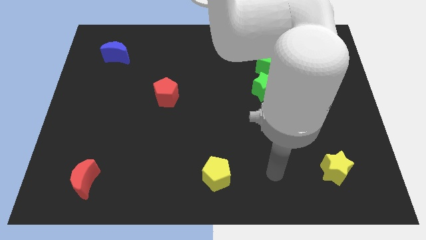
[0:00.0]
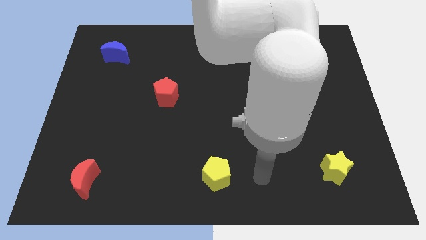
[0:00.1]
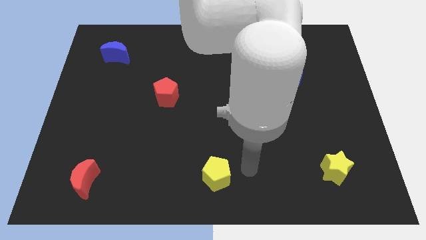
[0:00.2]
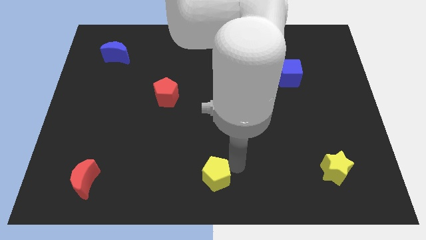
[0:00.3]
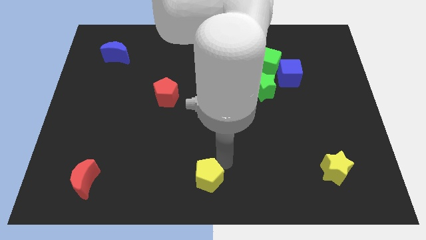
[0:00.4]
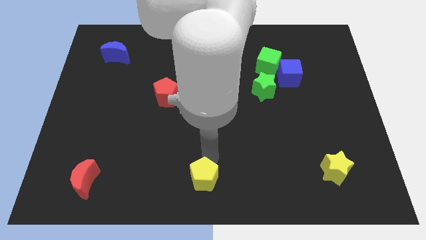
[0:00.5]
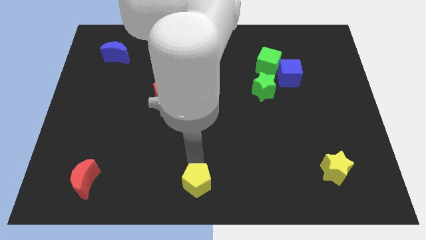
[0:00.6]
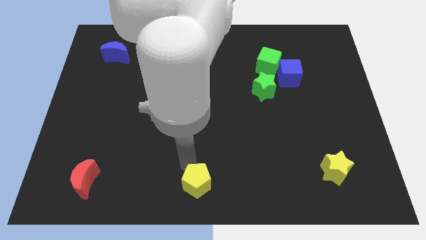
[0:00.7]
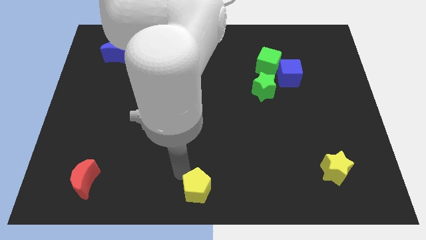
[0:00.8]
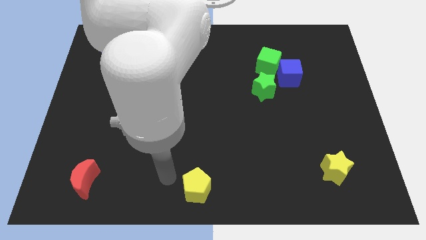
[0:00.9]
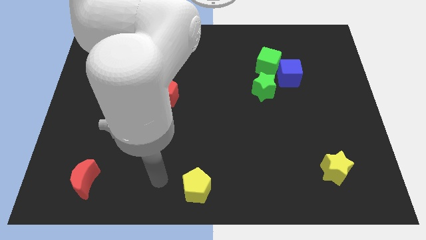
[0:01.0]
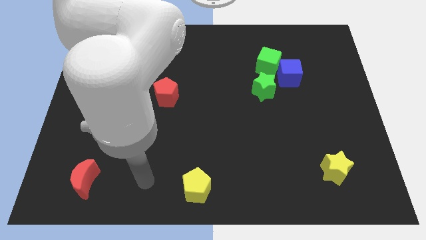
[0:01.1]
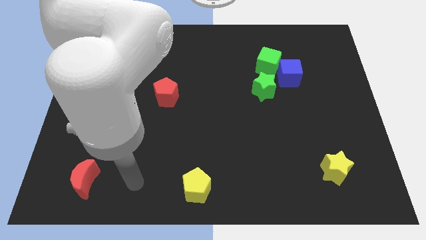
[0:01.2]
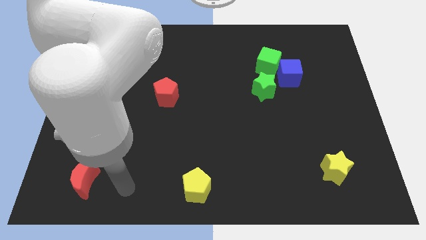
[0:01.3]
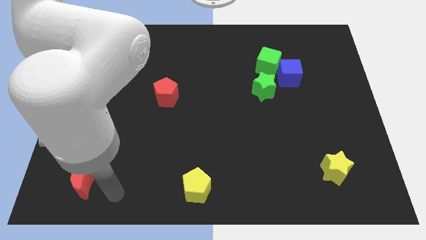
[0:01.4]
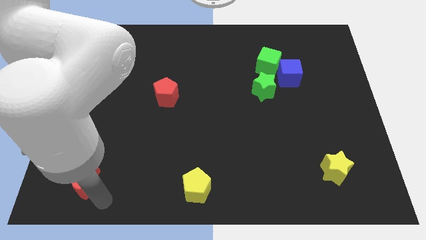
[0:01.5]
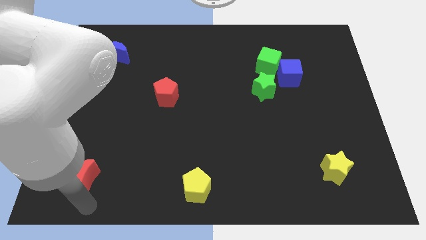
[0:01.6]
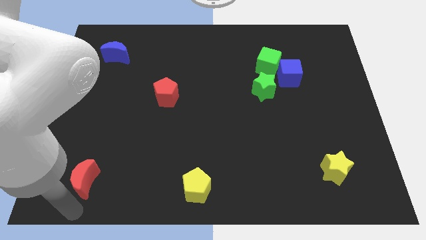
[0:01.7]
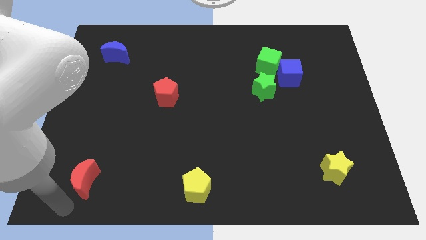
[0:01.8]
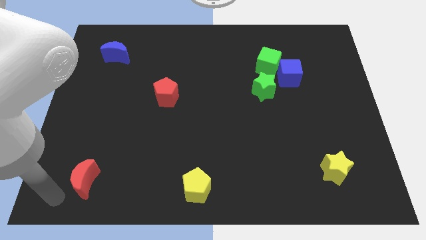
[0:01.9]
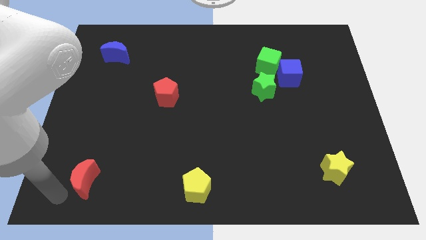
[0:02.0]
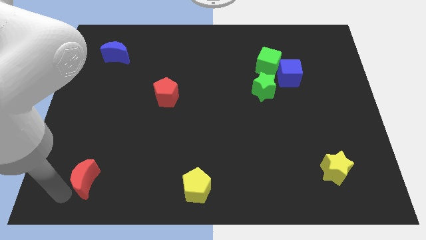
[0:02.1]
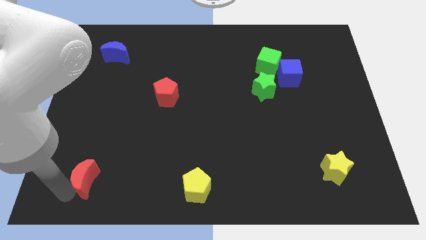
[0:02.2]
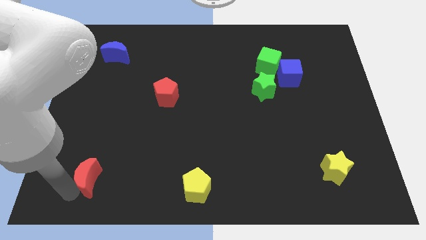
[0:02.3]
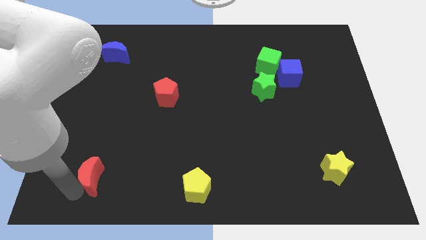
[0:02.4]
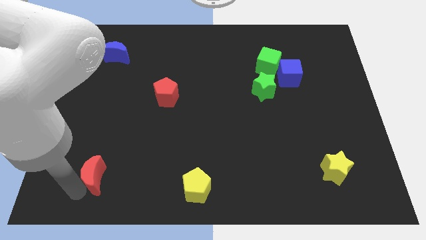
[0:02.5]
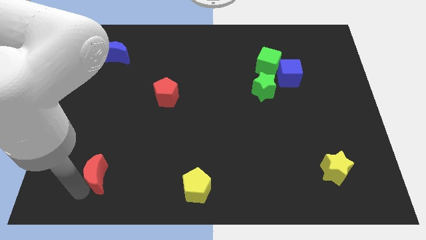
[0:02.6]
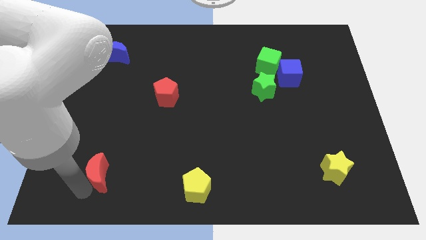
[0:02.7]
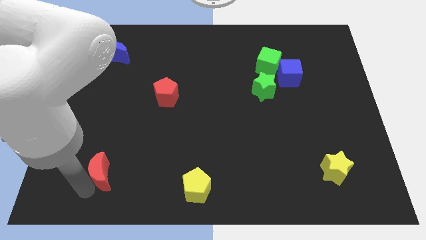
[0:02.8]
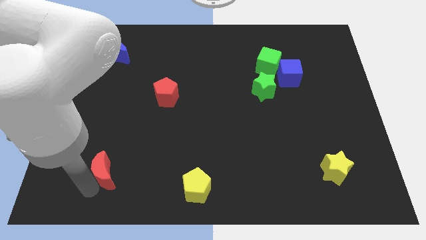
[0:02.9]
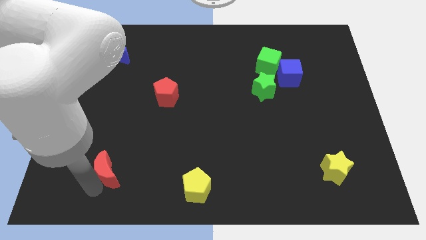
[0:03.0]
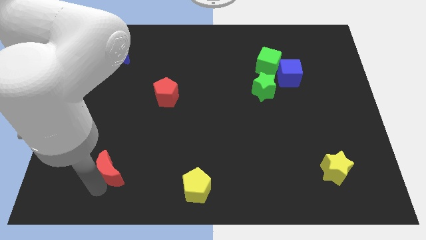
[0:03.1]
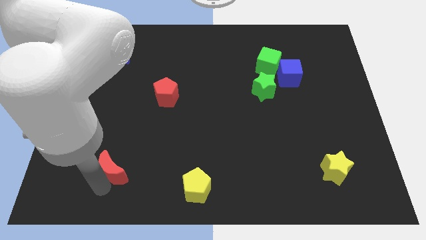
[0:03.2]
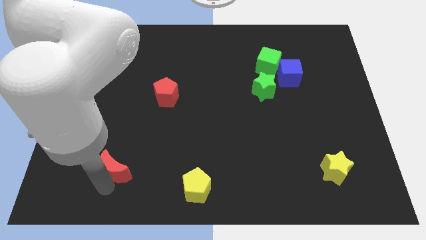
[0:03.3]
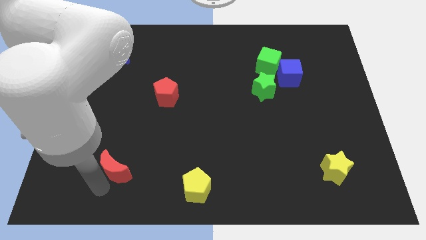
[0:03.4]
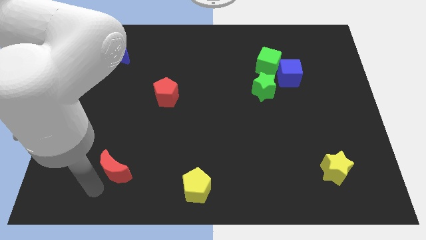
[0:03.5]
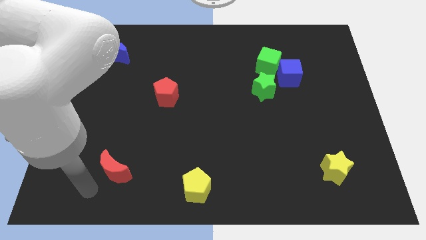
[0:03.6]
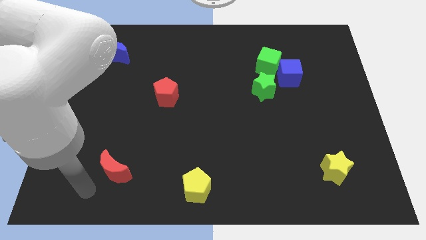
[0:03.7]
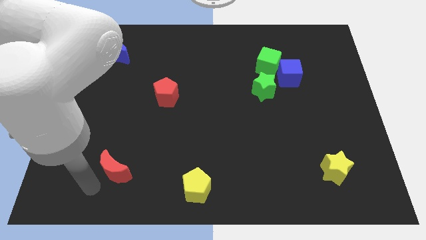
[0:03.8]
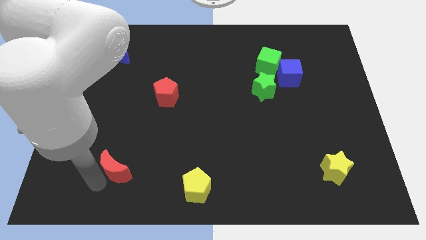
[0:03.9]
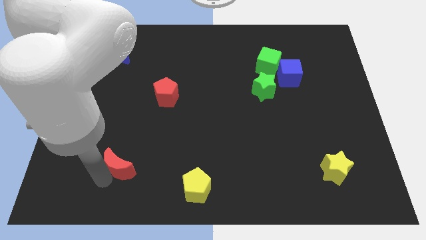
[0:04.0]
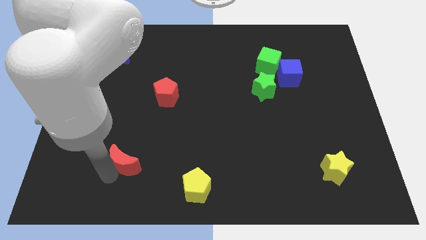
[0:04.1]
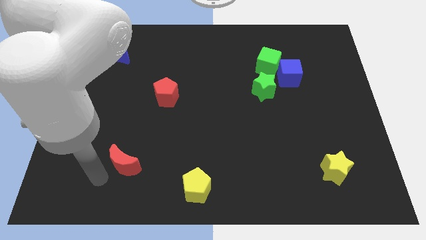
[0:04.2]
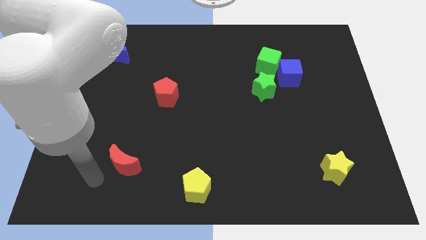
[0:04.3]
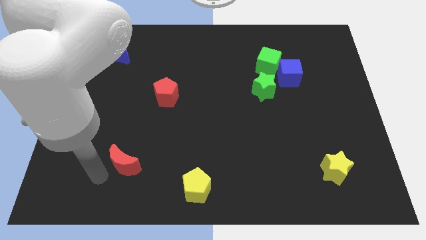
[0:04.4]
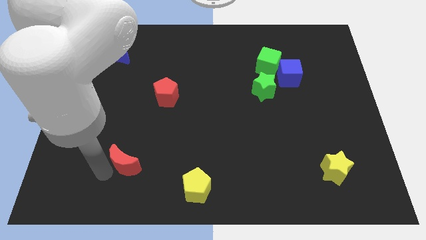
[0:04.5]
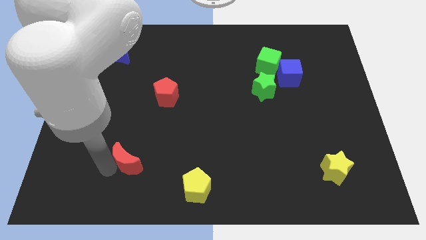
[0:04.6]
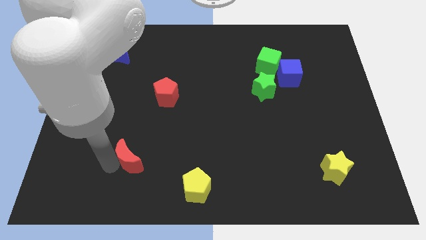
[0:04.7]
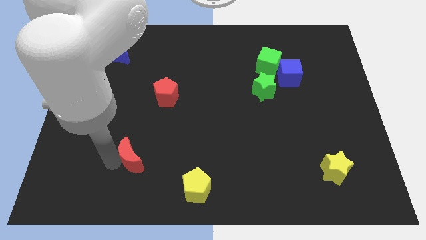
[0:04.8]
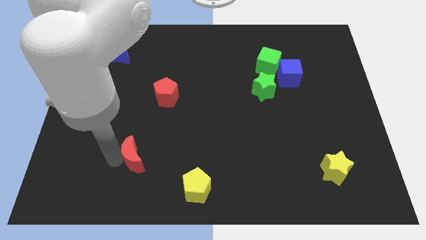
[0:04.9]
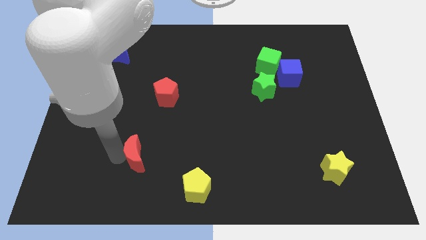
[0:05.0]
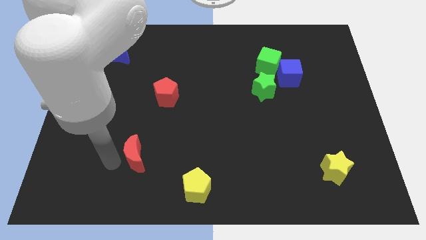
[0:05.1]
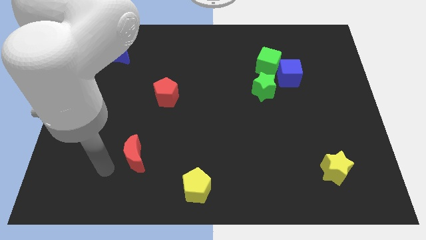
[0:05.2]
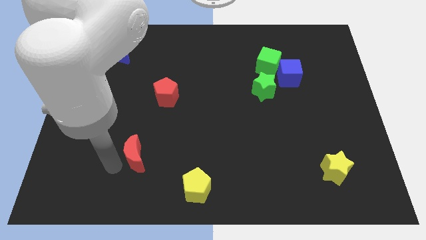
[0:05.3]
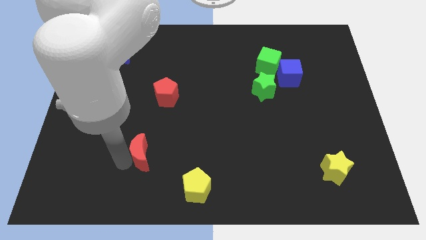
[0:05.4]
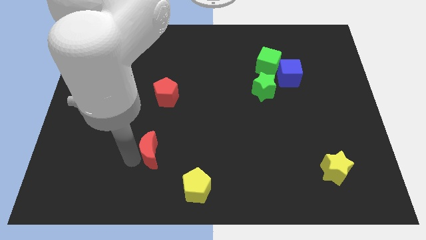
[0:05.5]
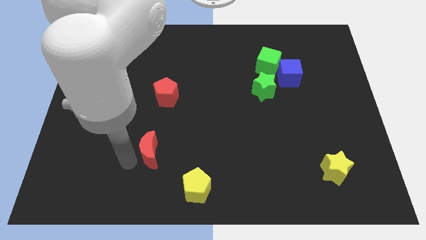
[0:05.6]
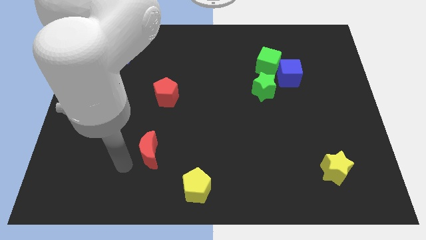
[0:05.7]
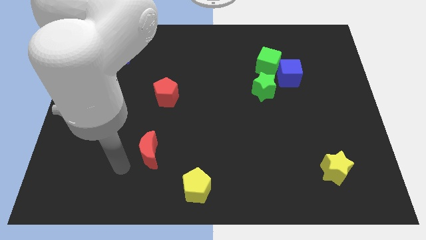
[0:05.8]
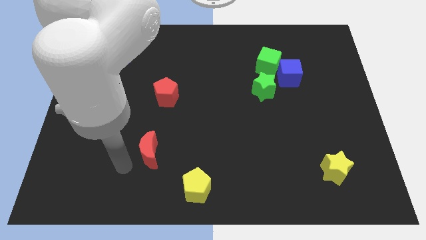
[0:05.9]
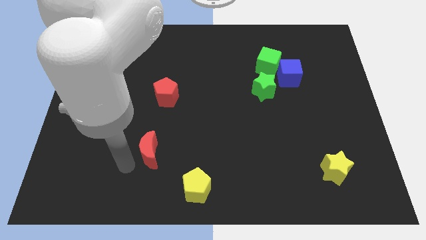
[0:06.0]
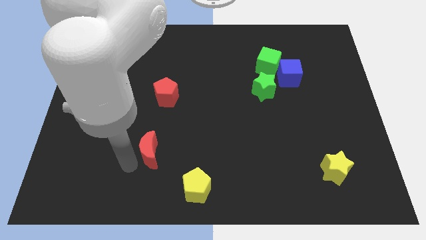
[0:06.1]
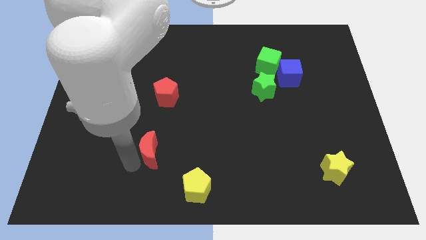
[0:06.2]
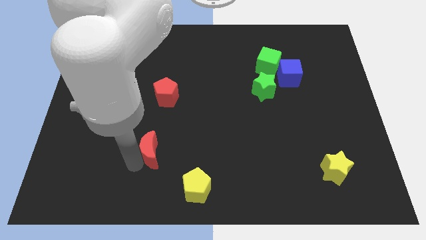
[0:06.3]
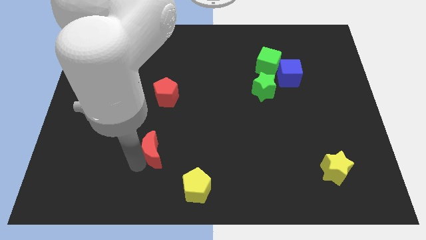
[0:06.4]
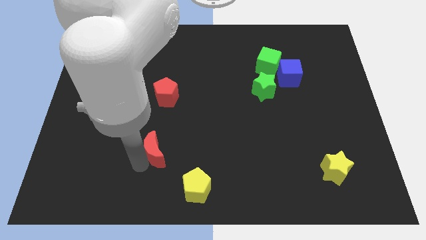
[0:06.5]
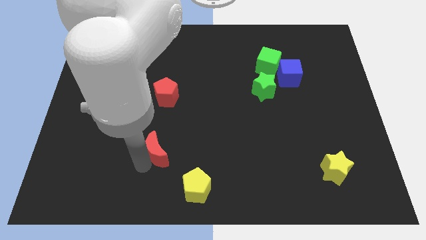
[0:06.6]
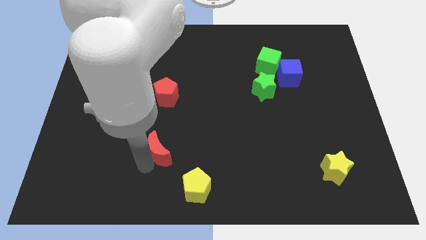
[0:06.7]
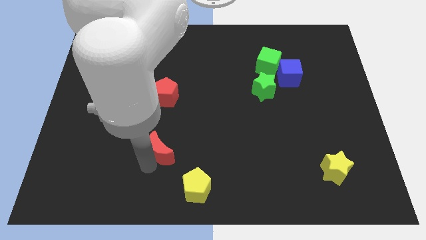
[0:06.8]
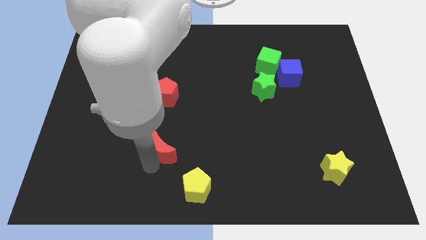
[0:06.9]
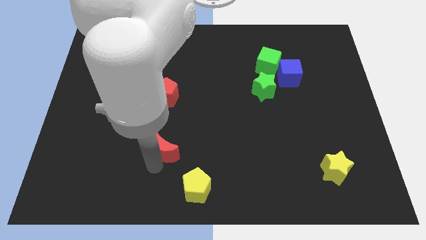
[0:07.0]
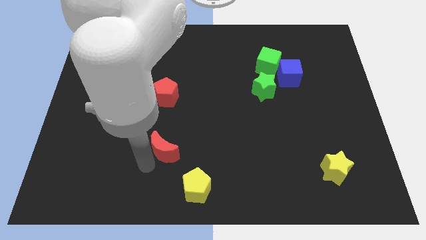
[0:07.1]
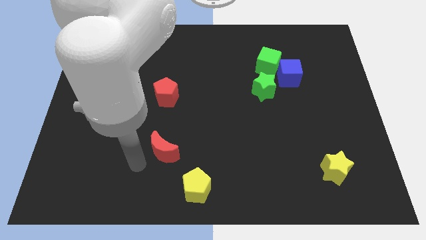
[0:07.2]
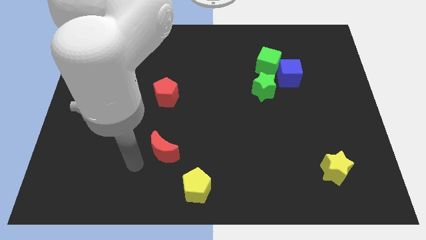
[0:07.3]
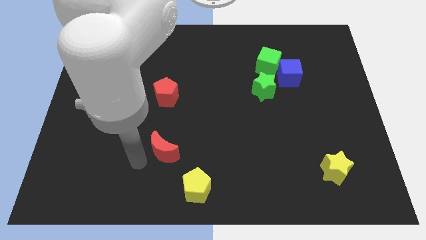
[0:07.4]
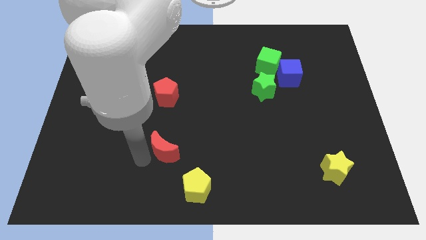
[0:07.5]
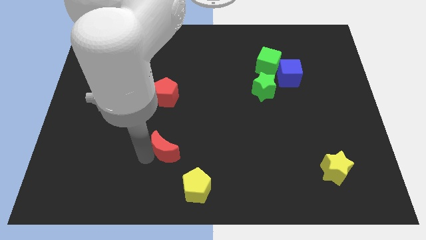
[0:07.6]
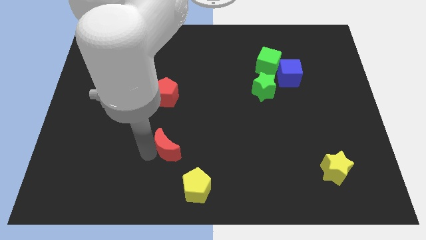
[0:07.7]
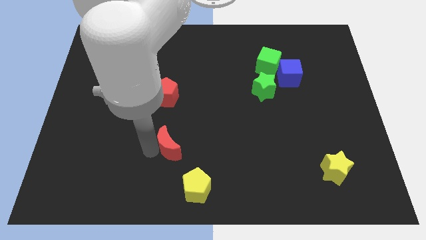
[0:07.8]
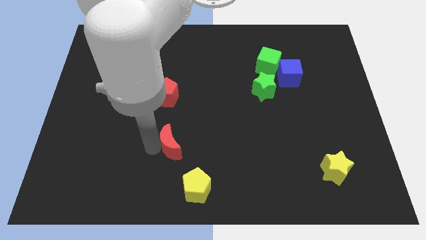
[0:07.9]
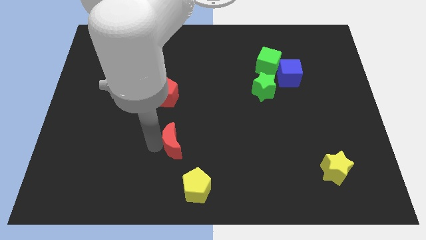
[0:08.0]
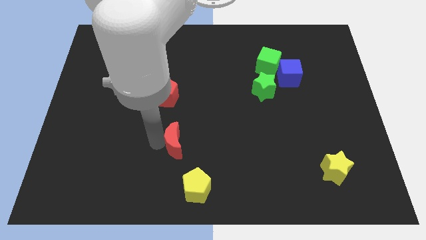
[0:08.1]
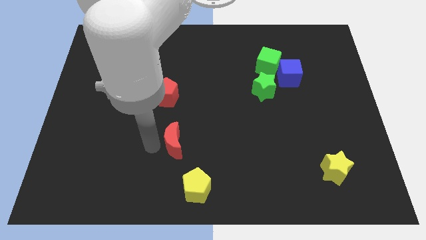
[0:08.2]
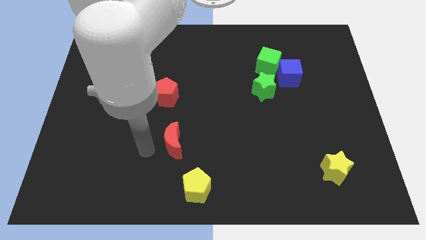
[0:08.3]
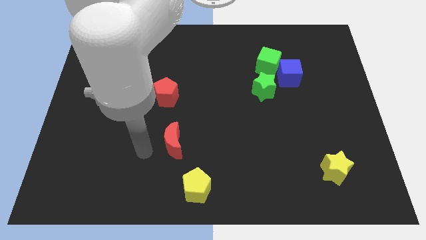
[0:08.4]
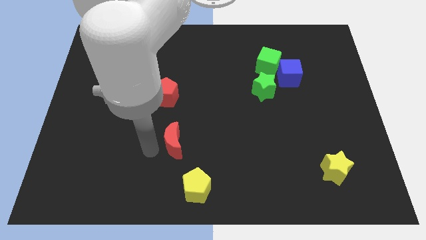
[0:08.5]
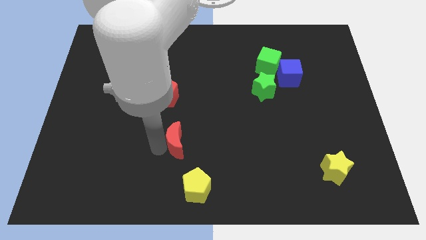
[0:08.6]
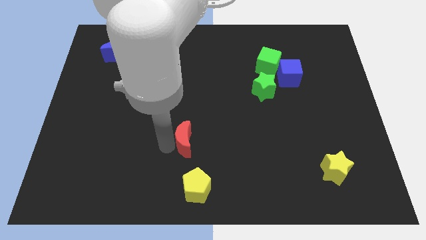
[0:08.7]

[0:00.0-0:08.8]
move the red moon above the yellow pentagon
